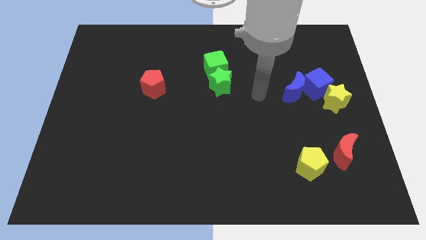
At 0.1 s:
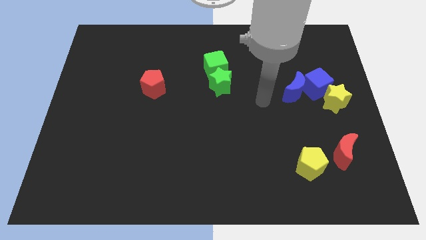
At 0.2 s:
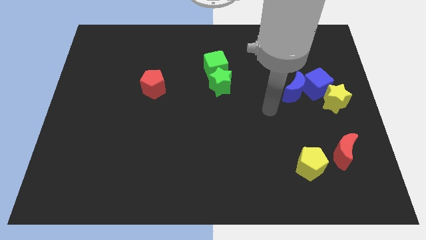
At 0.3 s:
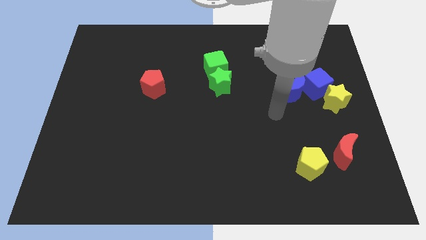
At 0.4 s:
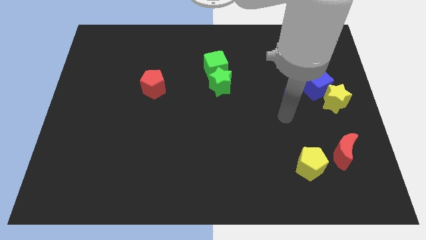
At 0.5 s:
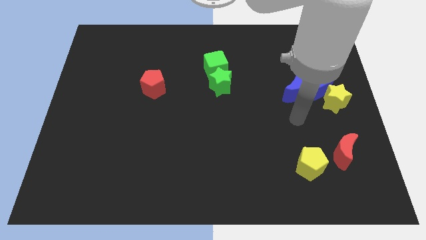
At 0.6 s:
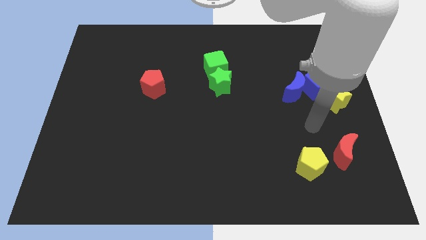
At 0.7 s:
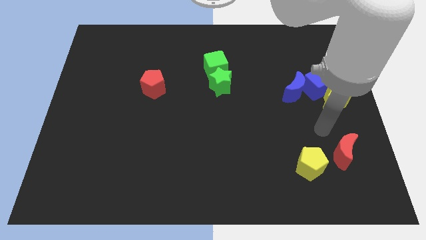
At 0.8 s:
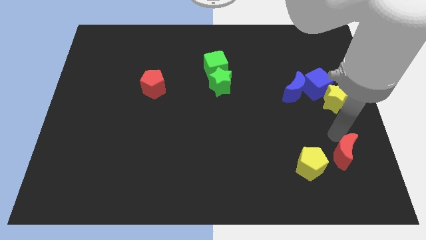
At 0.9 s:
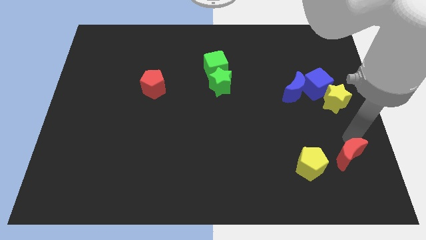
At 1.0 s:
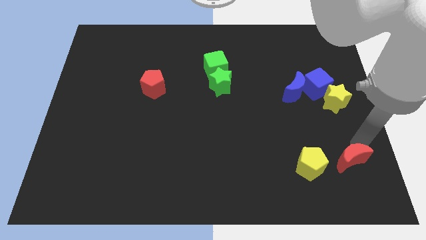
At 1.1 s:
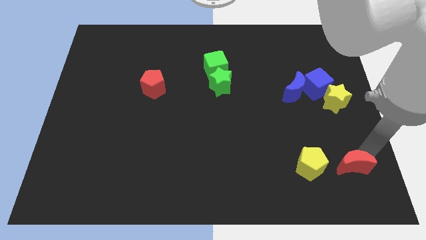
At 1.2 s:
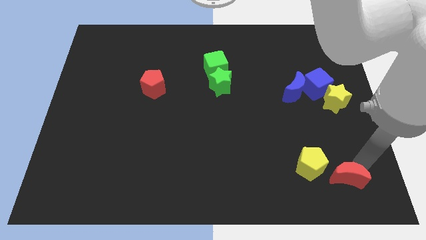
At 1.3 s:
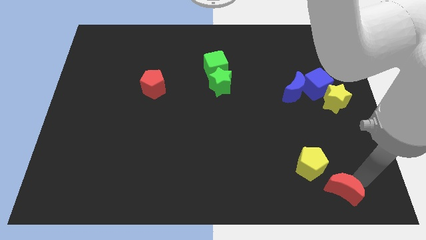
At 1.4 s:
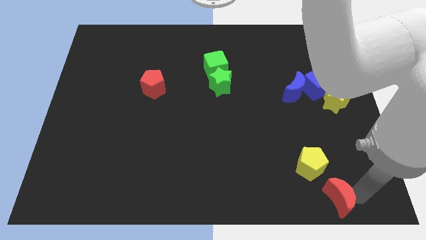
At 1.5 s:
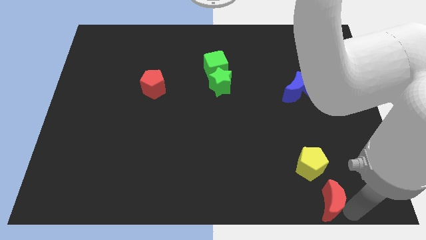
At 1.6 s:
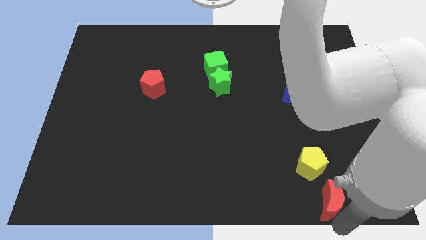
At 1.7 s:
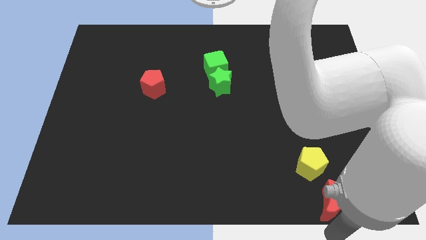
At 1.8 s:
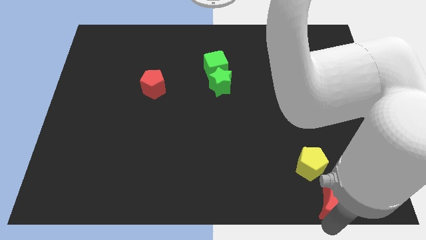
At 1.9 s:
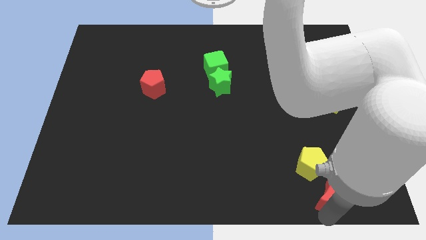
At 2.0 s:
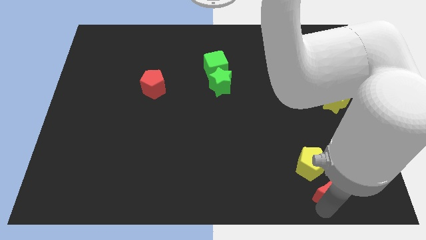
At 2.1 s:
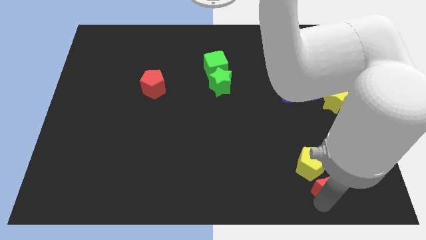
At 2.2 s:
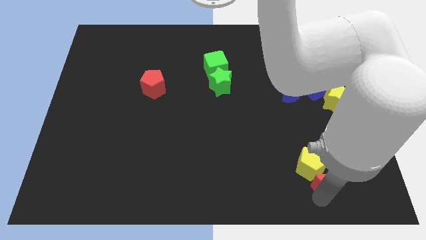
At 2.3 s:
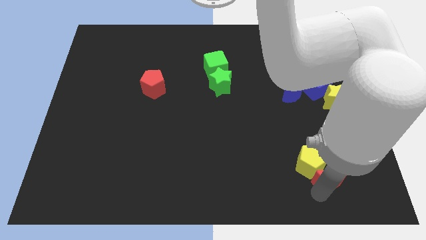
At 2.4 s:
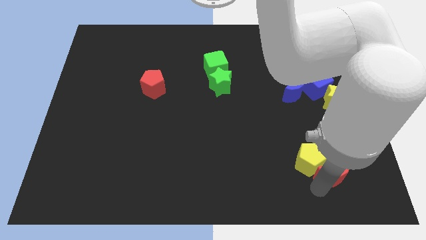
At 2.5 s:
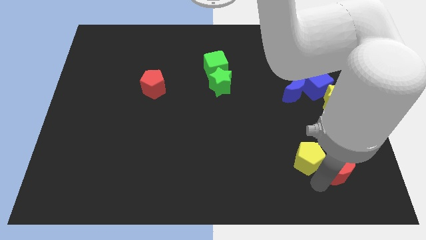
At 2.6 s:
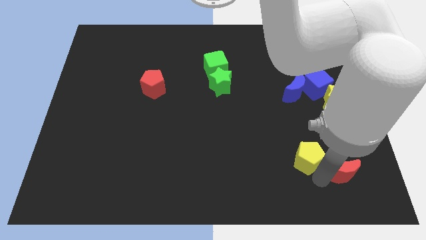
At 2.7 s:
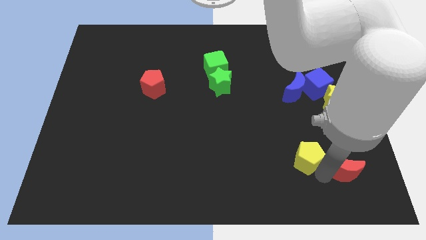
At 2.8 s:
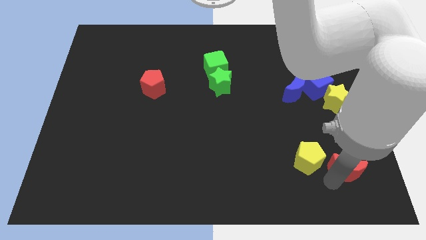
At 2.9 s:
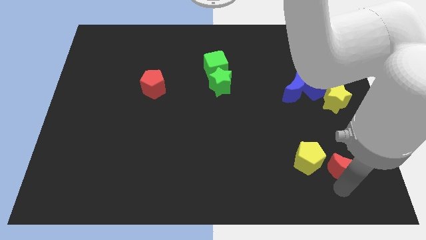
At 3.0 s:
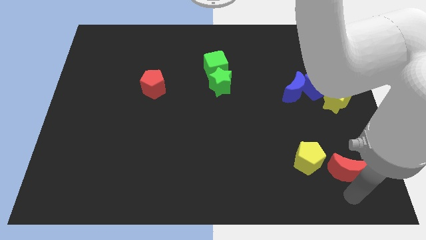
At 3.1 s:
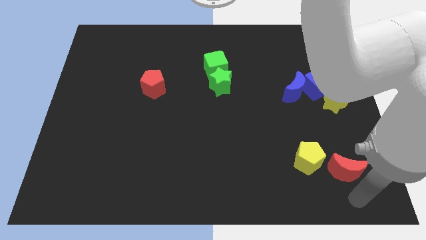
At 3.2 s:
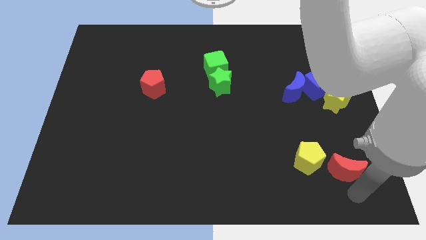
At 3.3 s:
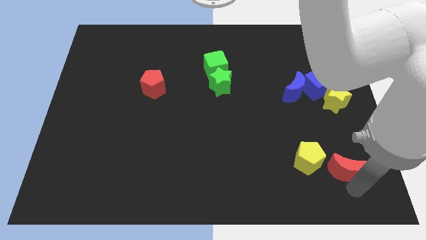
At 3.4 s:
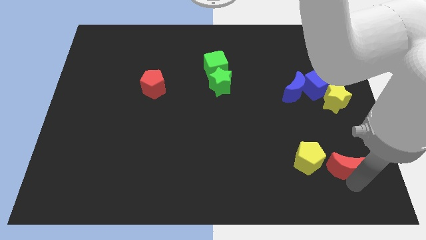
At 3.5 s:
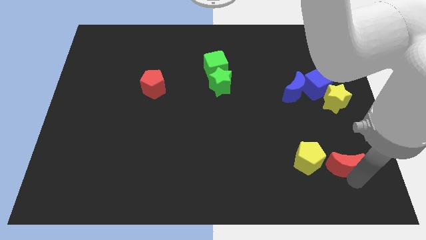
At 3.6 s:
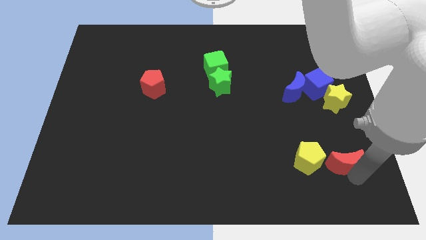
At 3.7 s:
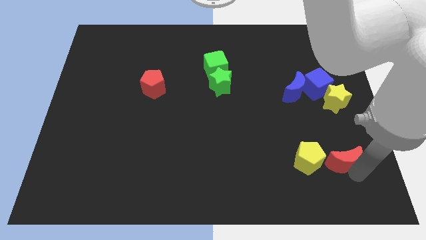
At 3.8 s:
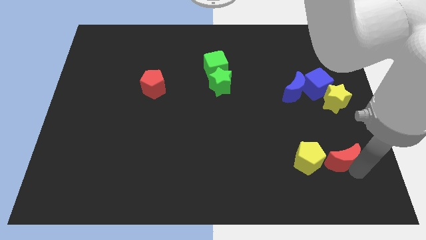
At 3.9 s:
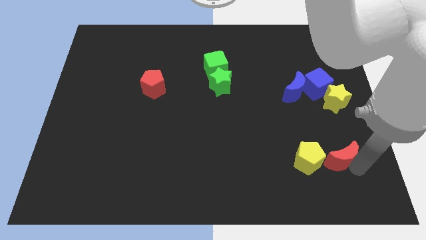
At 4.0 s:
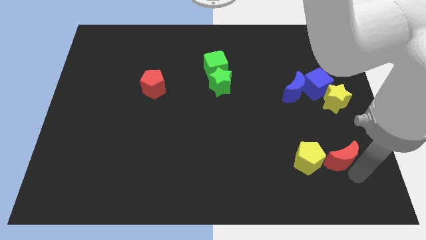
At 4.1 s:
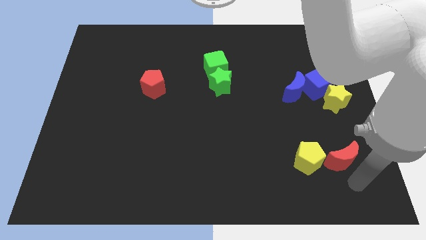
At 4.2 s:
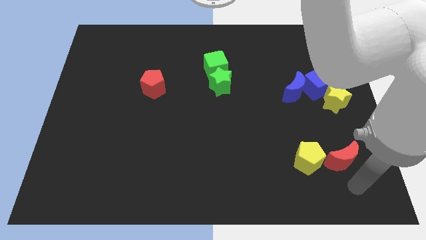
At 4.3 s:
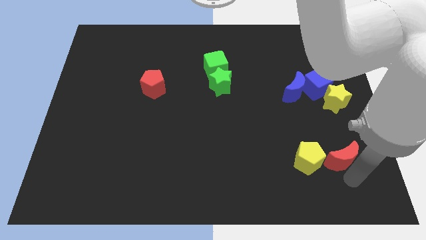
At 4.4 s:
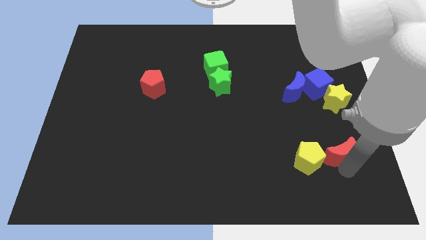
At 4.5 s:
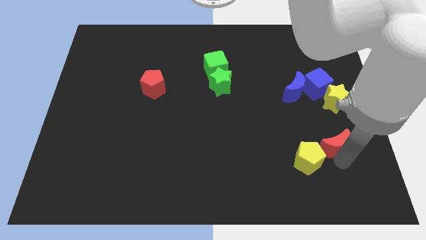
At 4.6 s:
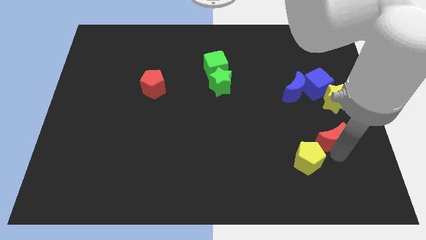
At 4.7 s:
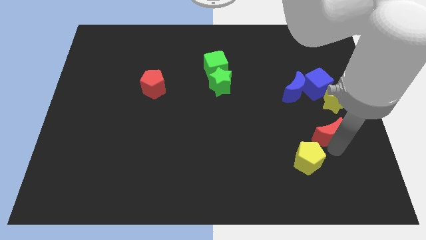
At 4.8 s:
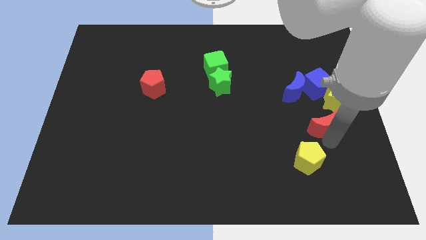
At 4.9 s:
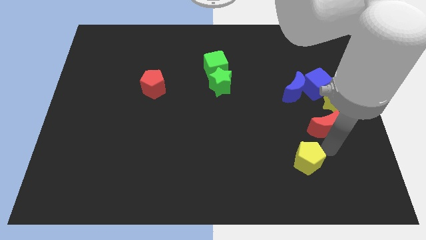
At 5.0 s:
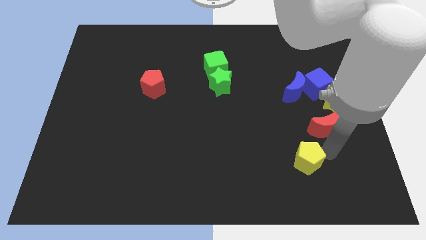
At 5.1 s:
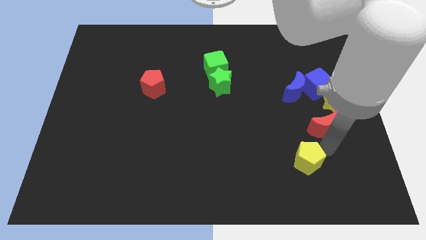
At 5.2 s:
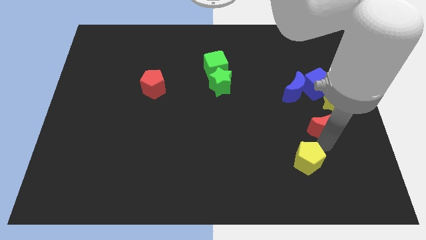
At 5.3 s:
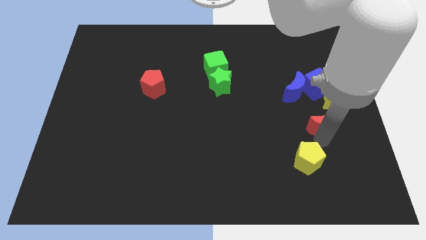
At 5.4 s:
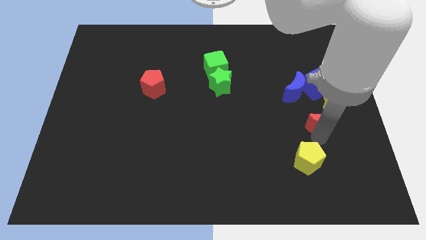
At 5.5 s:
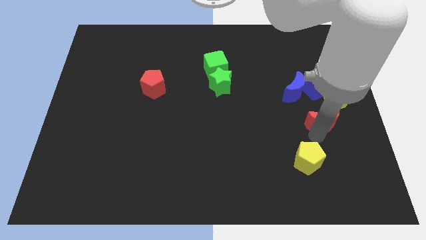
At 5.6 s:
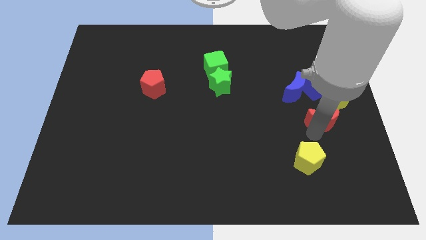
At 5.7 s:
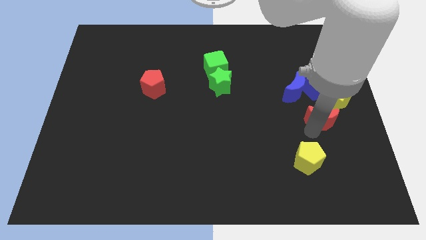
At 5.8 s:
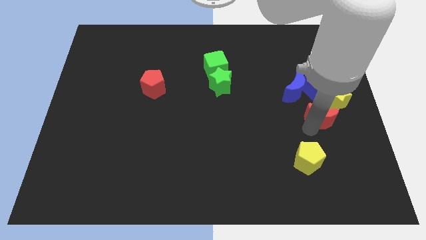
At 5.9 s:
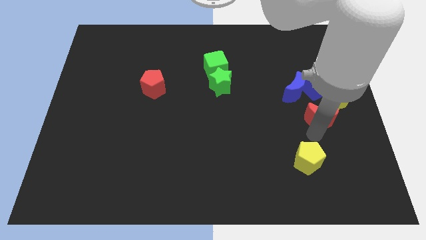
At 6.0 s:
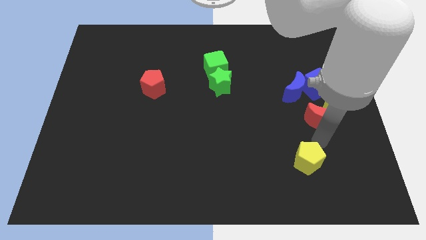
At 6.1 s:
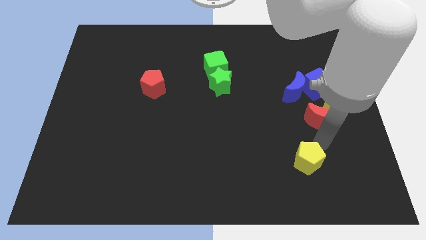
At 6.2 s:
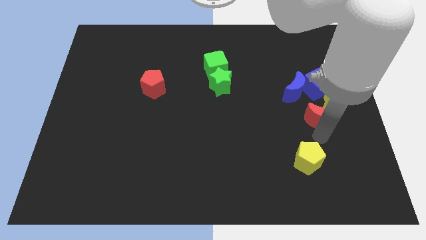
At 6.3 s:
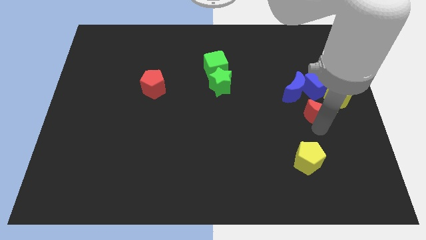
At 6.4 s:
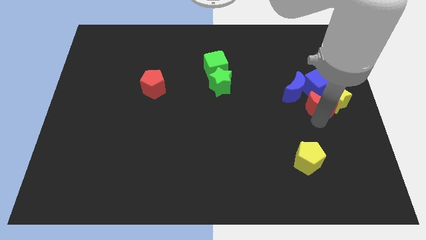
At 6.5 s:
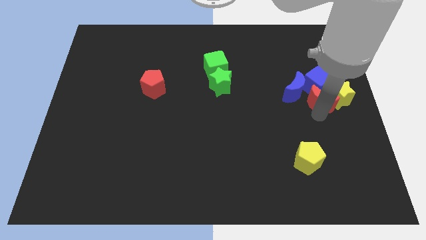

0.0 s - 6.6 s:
move the red moon close to the blue cube

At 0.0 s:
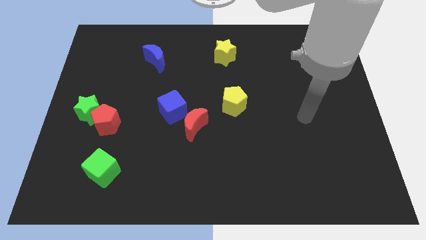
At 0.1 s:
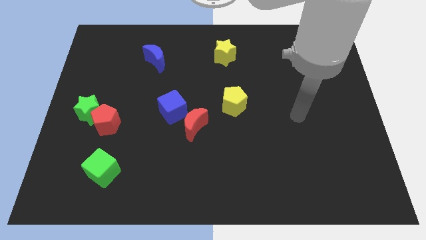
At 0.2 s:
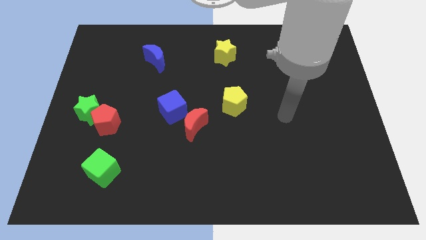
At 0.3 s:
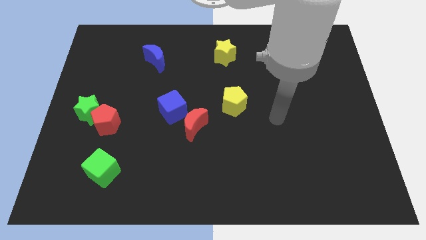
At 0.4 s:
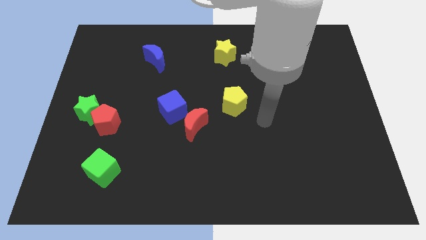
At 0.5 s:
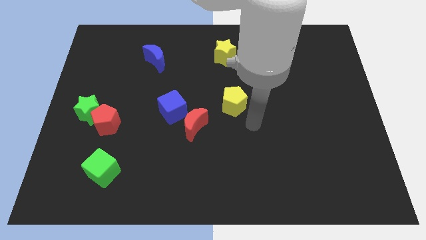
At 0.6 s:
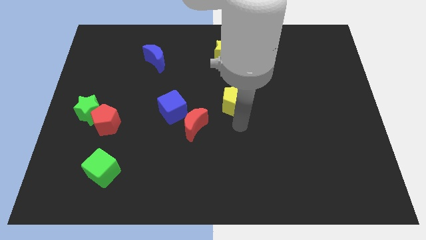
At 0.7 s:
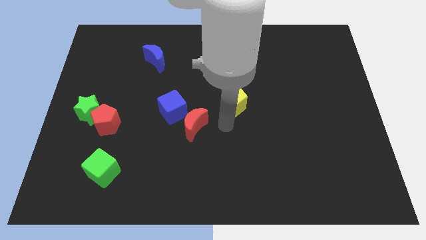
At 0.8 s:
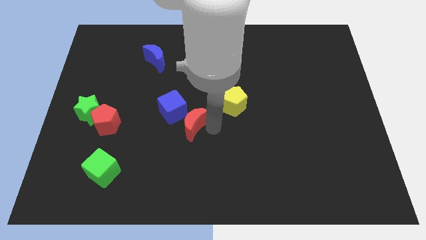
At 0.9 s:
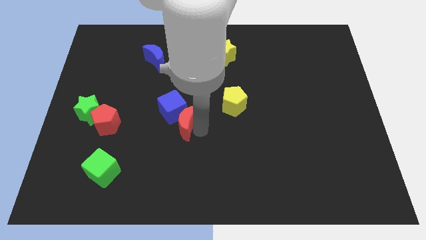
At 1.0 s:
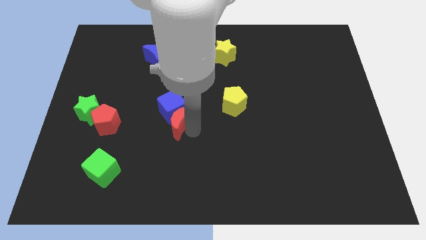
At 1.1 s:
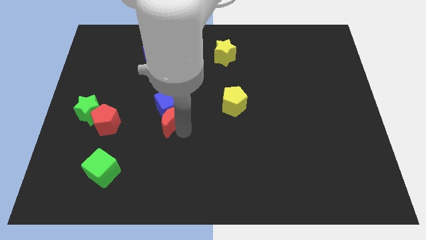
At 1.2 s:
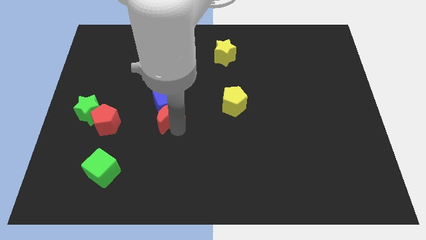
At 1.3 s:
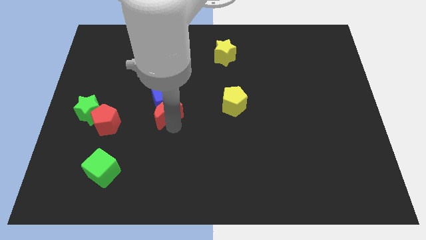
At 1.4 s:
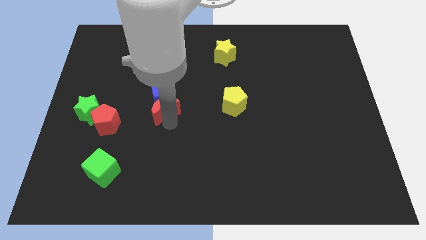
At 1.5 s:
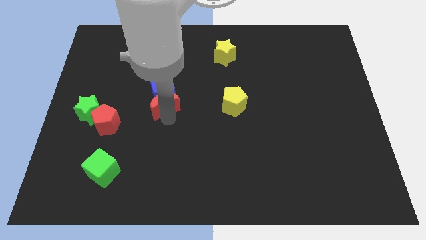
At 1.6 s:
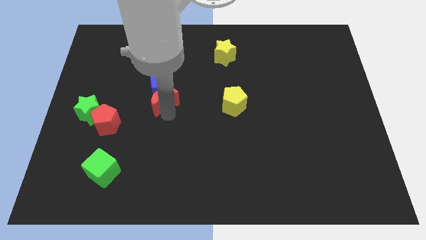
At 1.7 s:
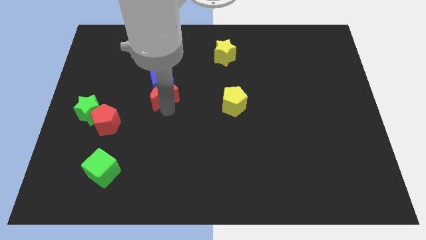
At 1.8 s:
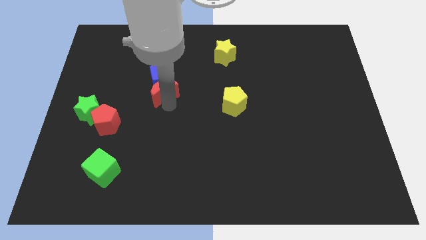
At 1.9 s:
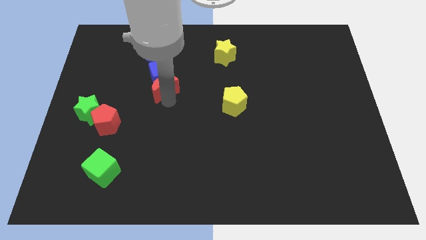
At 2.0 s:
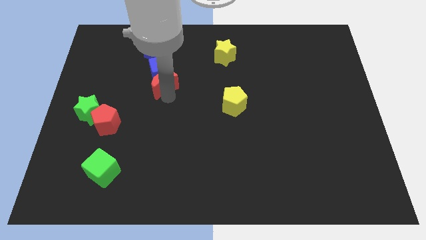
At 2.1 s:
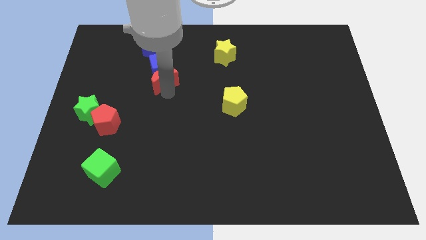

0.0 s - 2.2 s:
push the blue cube to the blue moon
